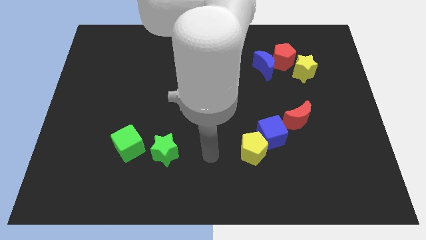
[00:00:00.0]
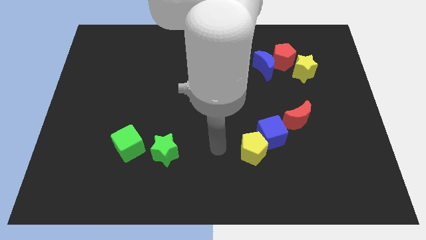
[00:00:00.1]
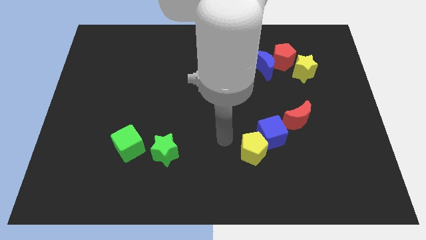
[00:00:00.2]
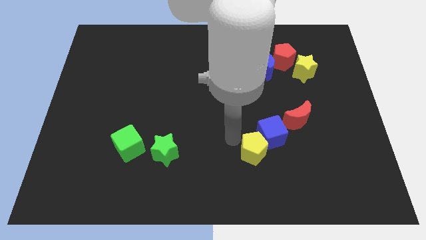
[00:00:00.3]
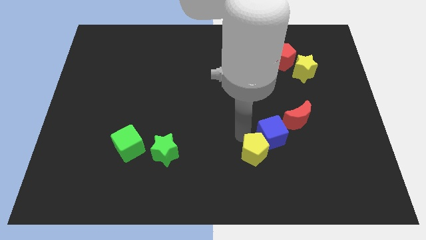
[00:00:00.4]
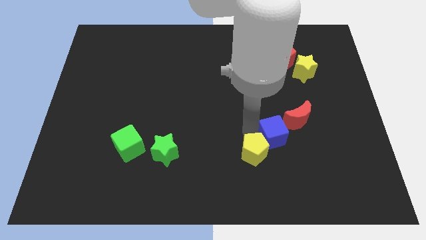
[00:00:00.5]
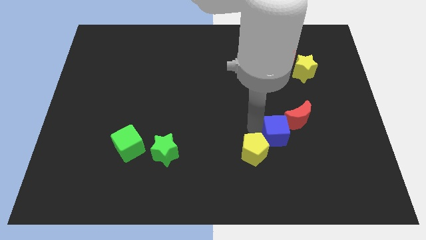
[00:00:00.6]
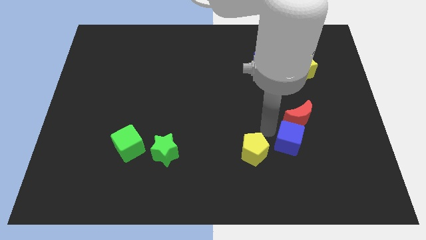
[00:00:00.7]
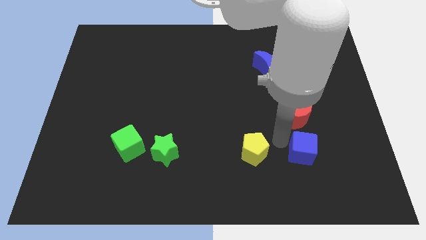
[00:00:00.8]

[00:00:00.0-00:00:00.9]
move the yellow pentagon away from the blue cube

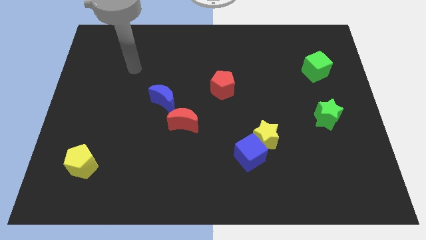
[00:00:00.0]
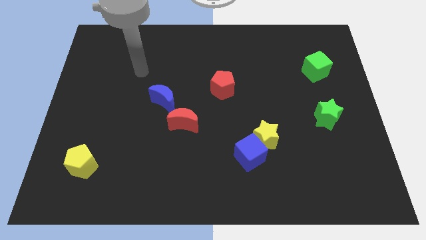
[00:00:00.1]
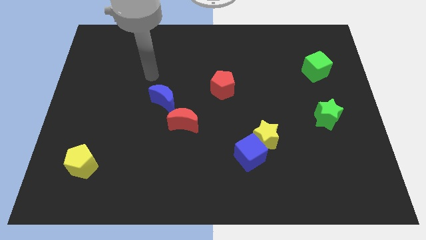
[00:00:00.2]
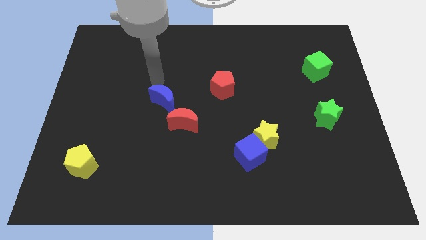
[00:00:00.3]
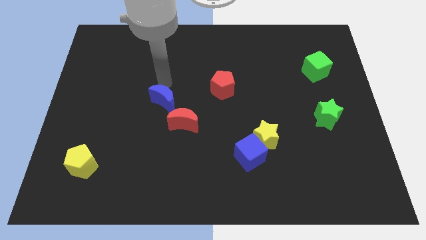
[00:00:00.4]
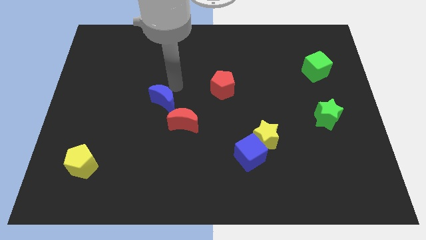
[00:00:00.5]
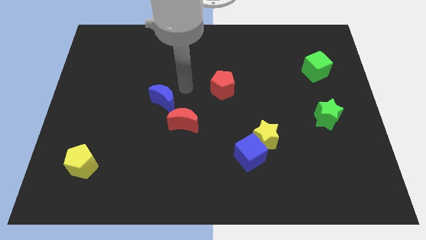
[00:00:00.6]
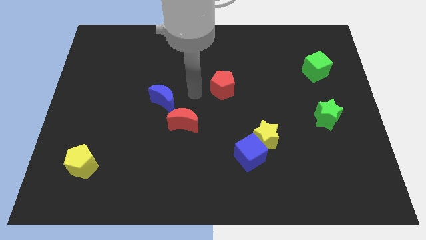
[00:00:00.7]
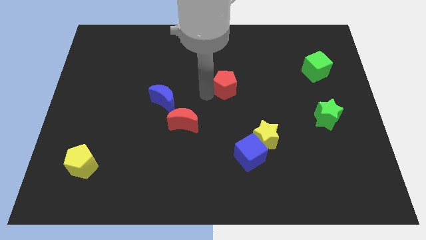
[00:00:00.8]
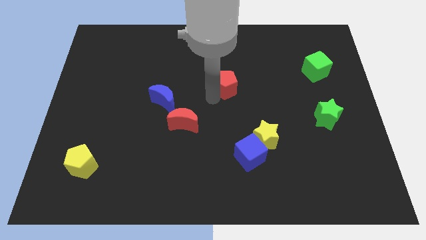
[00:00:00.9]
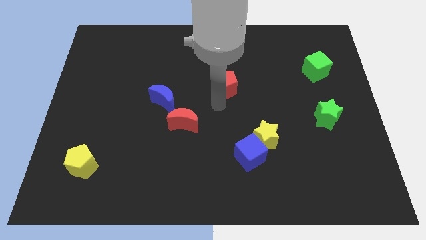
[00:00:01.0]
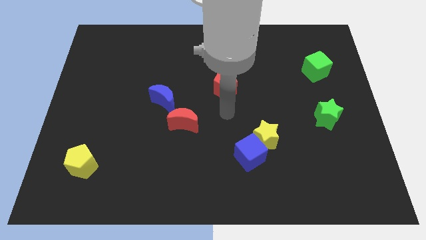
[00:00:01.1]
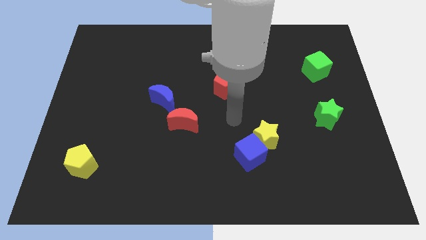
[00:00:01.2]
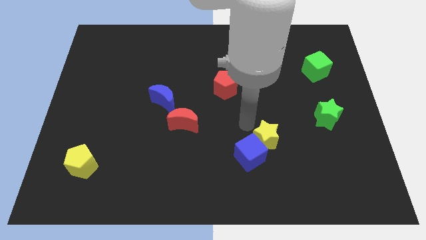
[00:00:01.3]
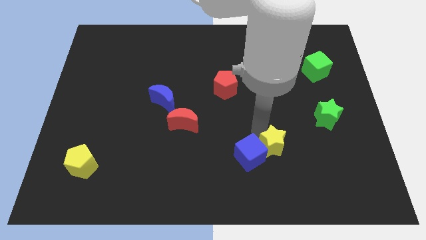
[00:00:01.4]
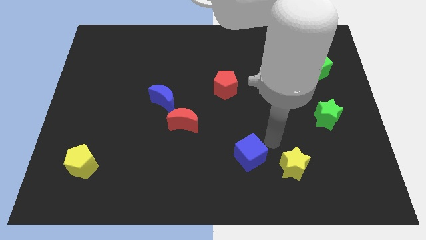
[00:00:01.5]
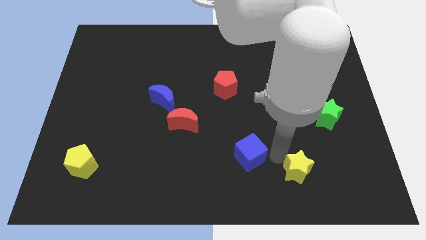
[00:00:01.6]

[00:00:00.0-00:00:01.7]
pull the blue cube apart from the yellow star

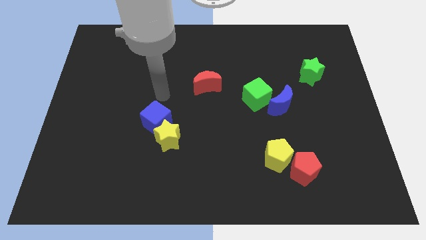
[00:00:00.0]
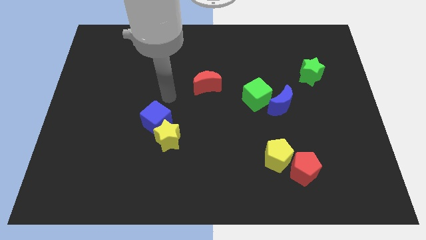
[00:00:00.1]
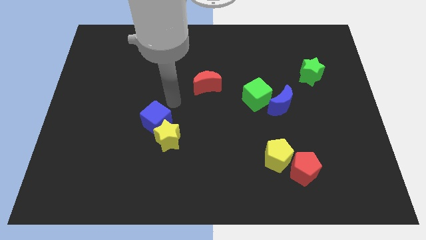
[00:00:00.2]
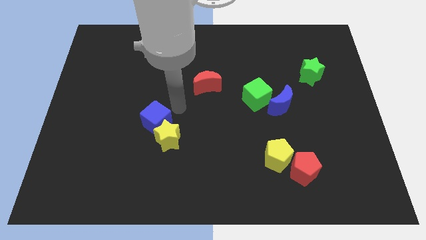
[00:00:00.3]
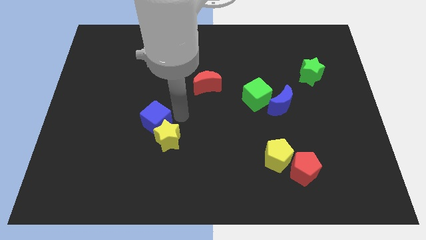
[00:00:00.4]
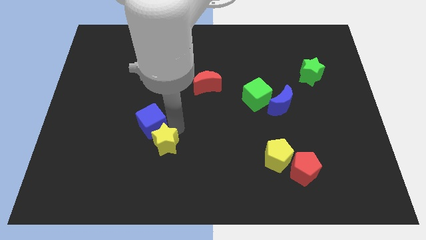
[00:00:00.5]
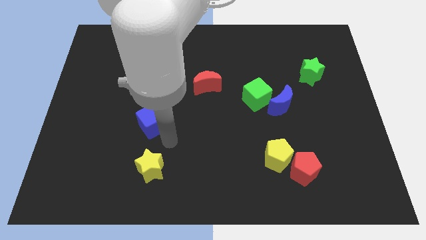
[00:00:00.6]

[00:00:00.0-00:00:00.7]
separate the blue cube from the yellow star

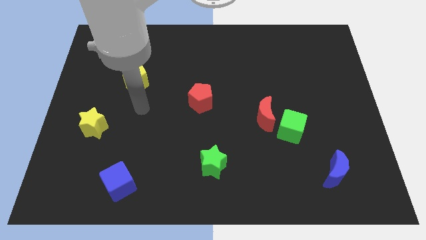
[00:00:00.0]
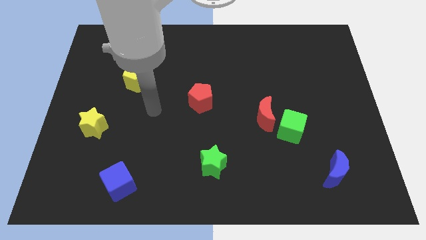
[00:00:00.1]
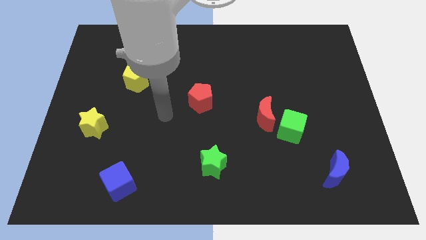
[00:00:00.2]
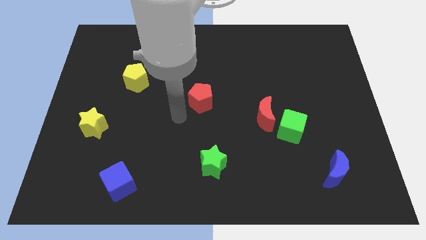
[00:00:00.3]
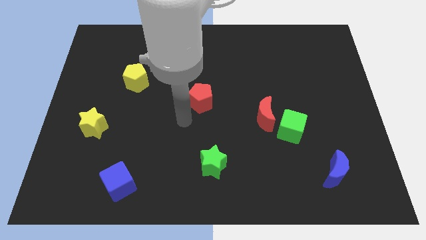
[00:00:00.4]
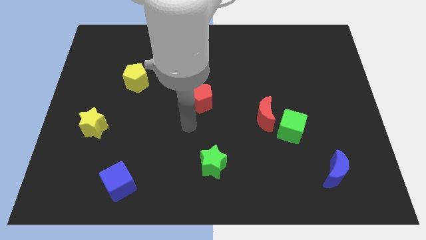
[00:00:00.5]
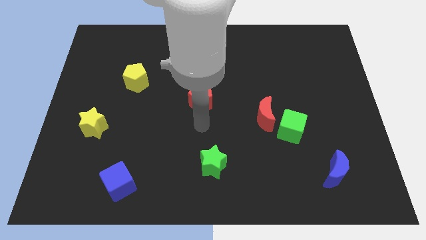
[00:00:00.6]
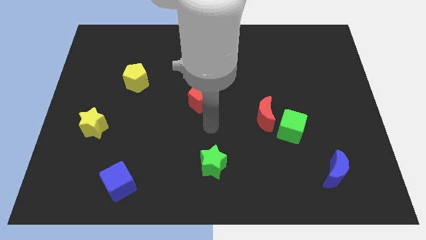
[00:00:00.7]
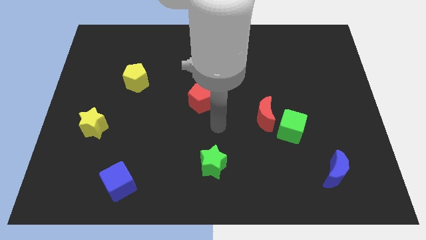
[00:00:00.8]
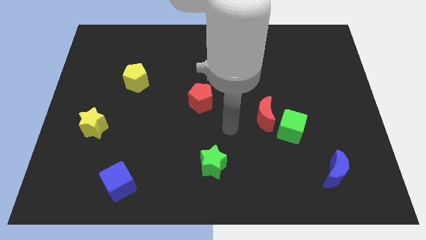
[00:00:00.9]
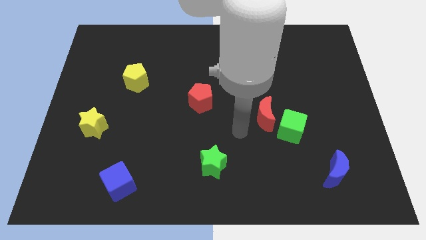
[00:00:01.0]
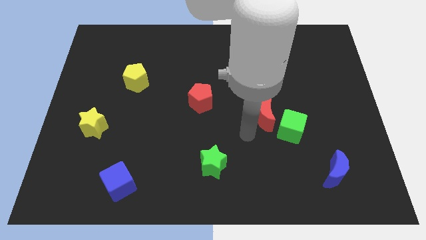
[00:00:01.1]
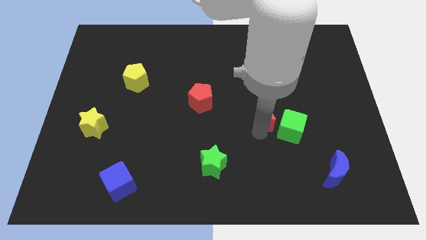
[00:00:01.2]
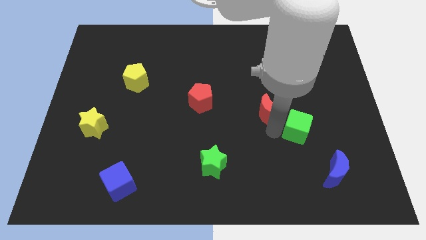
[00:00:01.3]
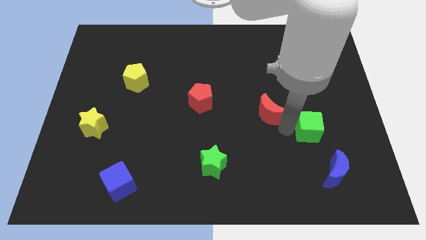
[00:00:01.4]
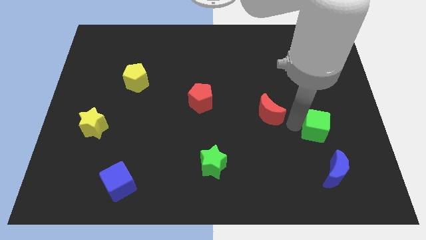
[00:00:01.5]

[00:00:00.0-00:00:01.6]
move the red moon away from the green cube

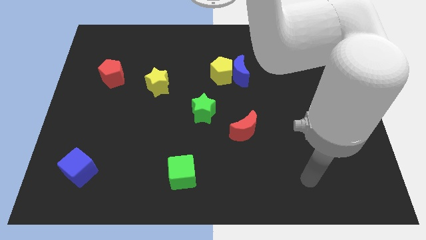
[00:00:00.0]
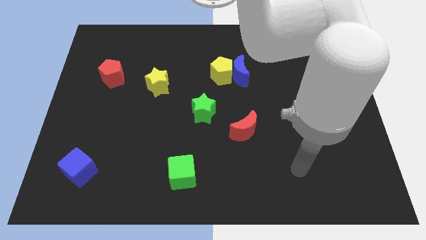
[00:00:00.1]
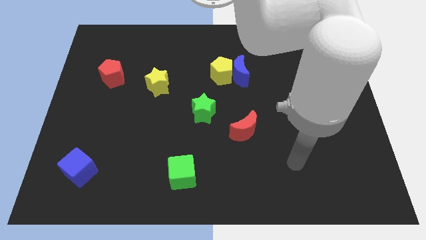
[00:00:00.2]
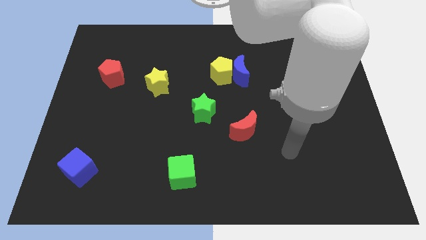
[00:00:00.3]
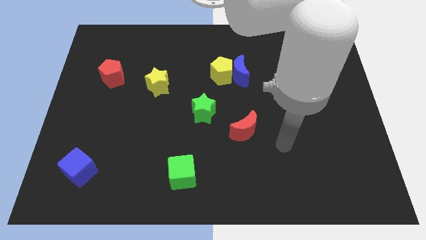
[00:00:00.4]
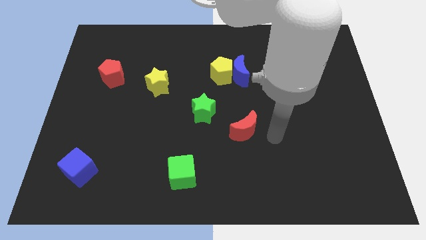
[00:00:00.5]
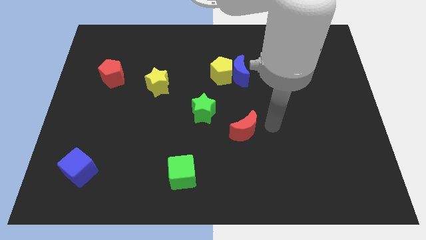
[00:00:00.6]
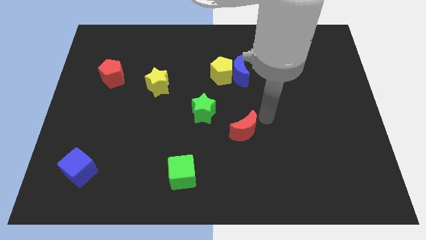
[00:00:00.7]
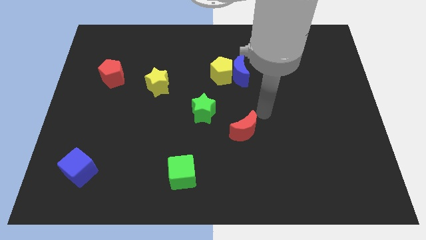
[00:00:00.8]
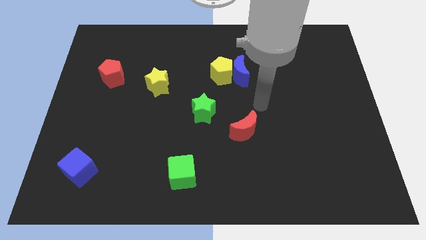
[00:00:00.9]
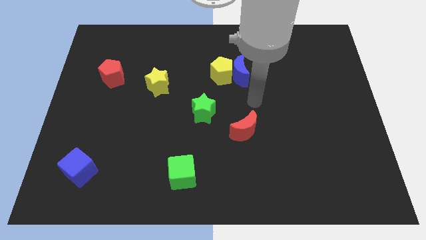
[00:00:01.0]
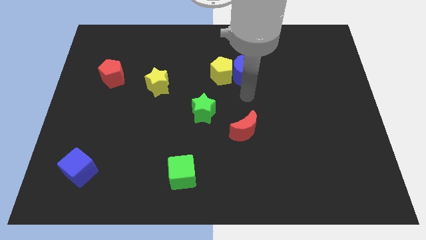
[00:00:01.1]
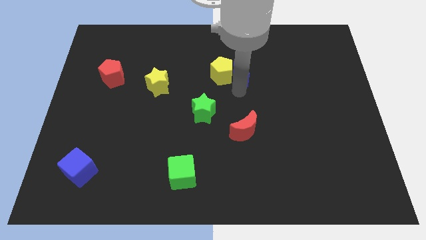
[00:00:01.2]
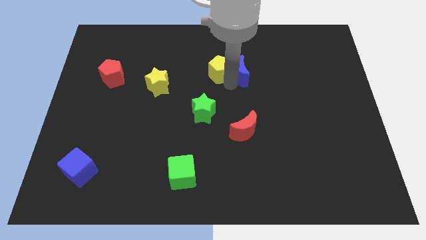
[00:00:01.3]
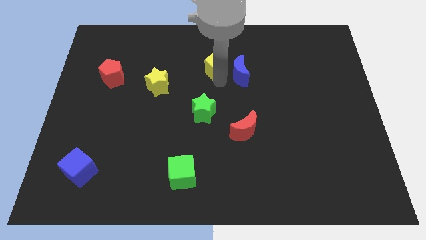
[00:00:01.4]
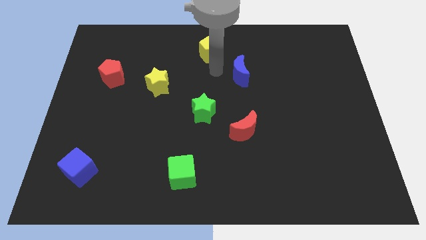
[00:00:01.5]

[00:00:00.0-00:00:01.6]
separate the blue moon from the yellow pentagon

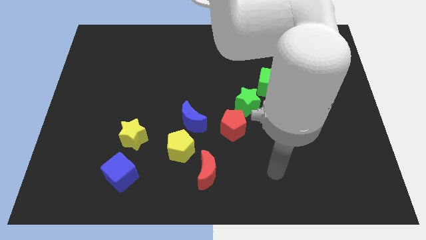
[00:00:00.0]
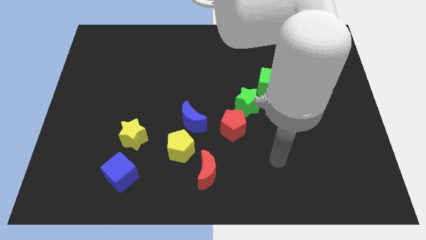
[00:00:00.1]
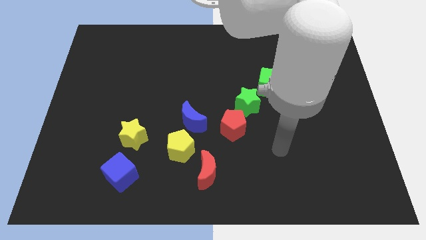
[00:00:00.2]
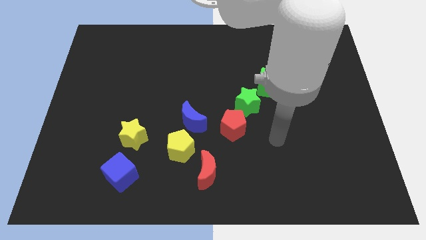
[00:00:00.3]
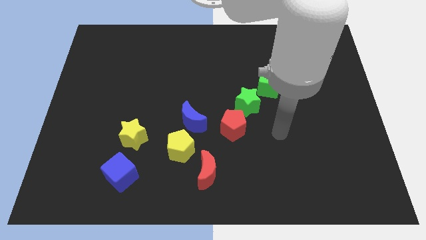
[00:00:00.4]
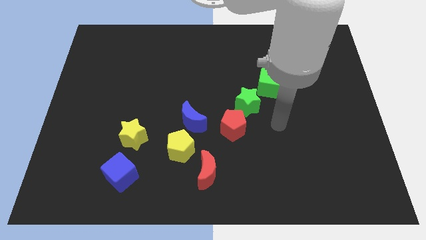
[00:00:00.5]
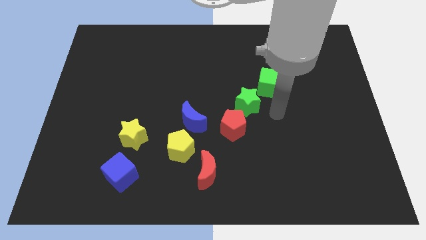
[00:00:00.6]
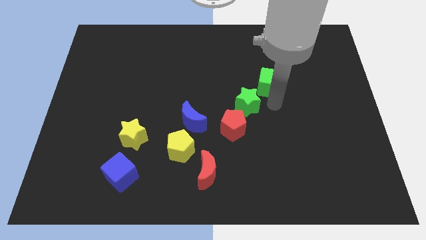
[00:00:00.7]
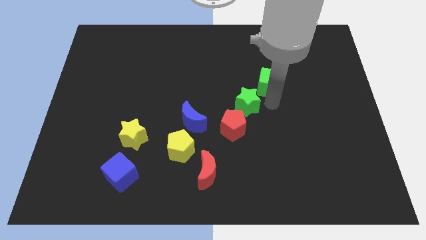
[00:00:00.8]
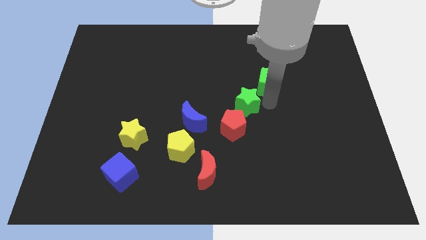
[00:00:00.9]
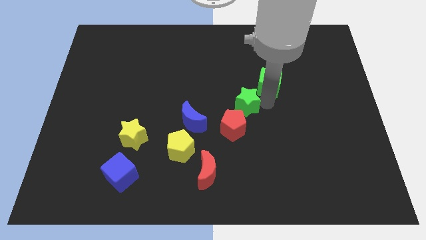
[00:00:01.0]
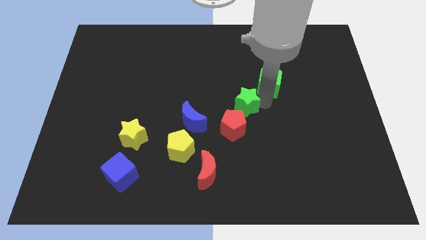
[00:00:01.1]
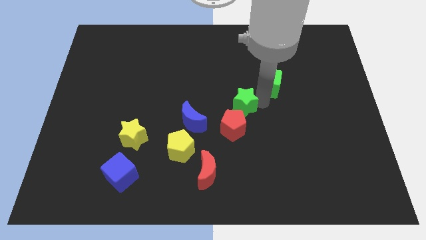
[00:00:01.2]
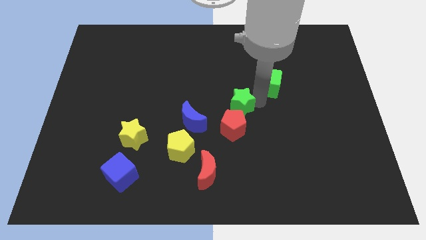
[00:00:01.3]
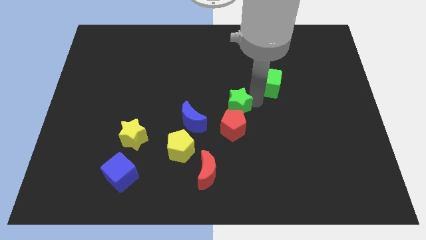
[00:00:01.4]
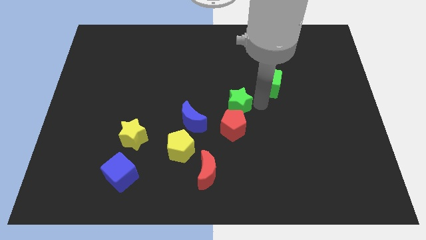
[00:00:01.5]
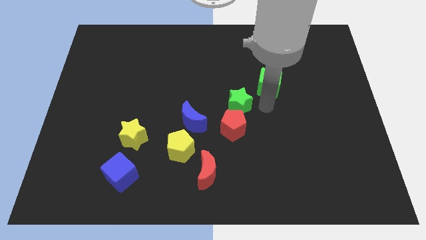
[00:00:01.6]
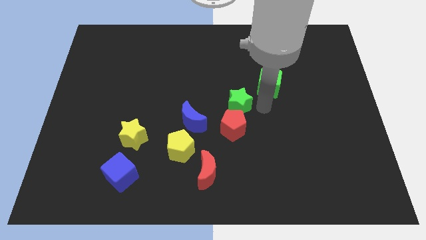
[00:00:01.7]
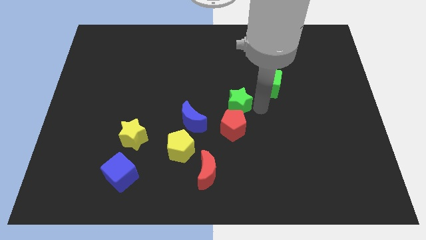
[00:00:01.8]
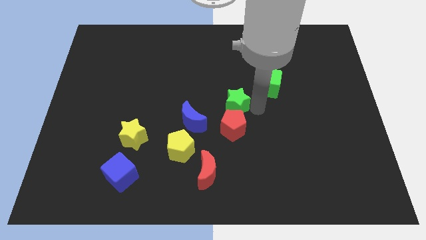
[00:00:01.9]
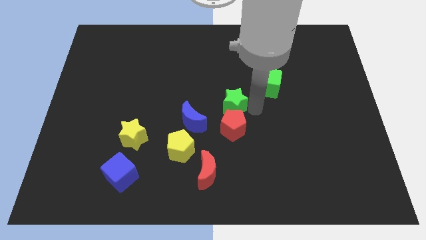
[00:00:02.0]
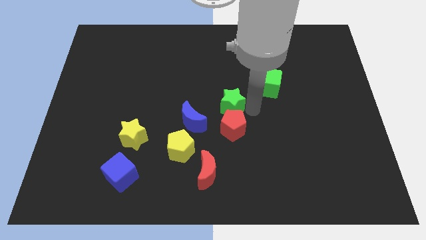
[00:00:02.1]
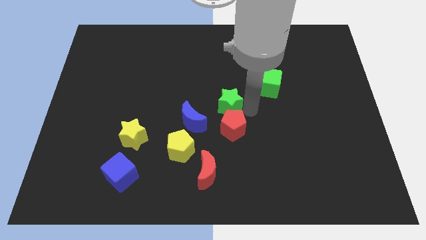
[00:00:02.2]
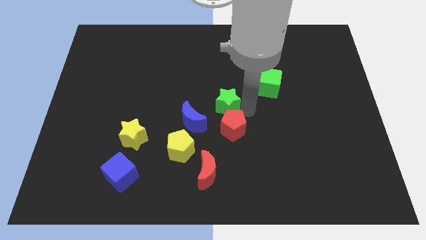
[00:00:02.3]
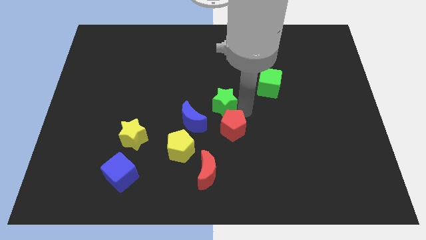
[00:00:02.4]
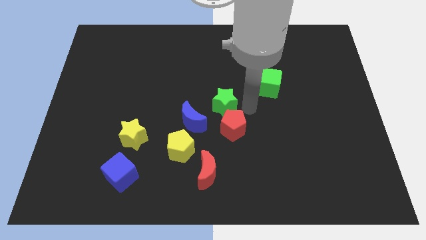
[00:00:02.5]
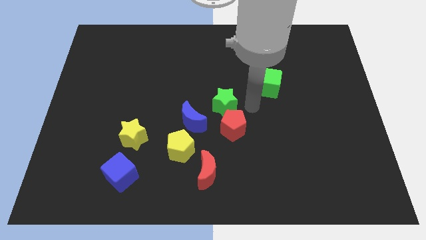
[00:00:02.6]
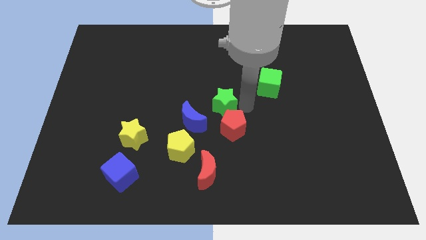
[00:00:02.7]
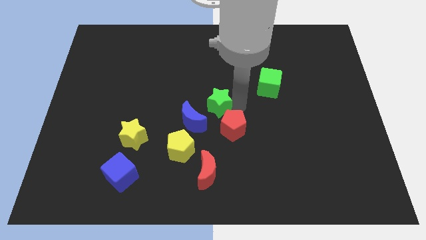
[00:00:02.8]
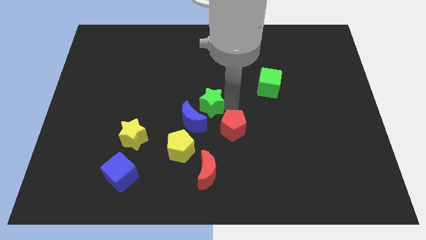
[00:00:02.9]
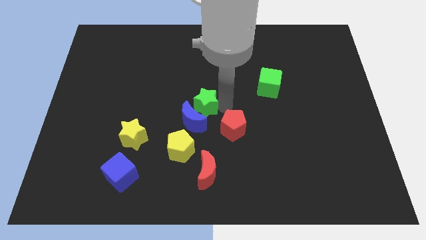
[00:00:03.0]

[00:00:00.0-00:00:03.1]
move the green star away from the red pentagon and green cube
